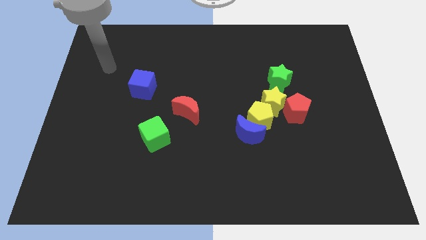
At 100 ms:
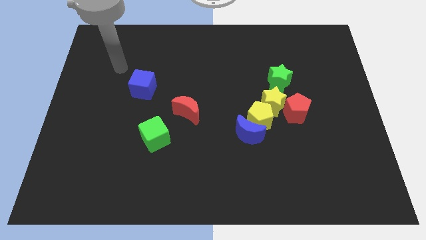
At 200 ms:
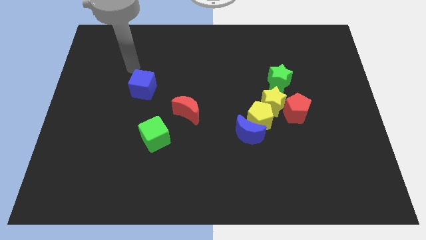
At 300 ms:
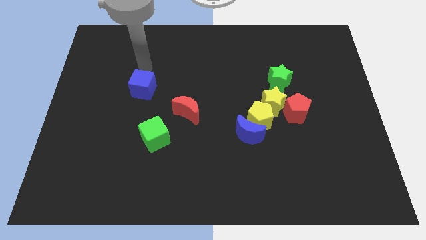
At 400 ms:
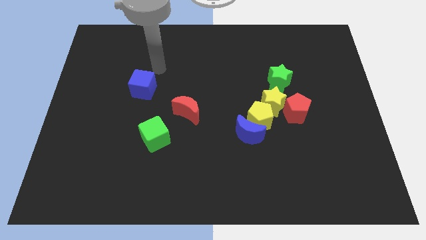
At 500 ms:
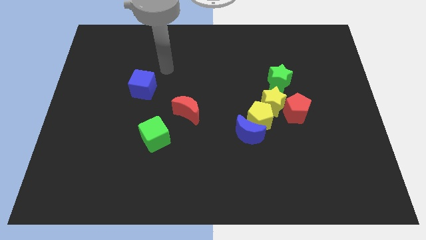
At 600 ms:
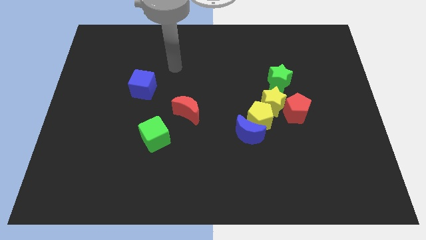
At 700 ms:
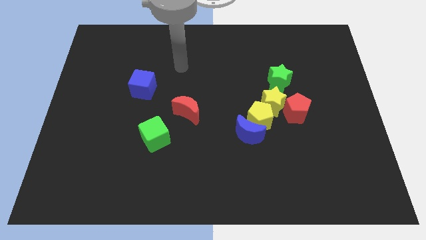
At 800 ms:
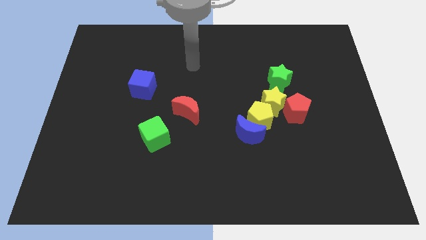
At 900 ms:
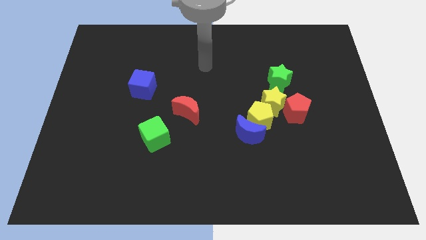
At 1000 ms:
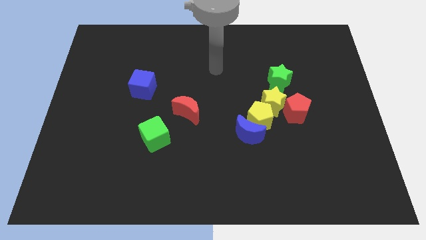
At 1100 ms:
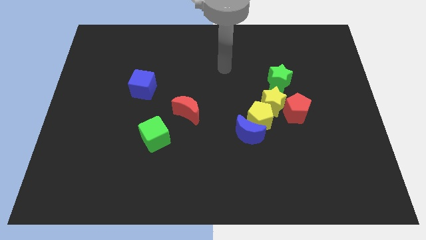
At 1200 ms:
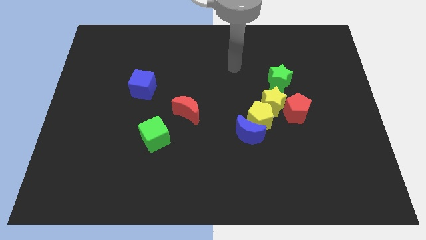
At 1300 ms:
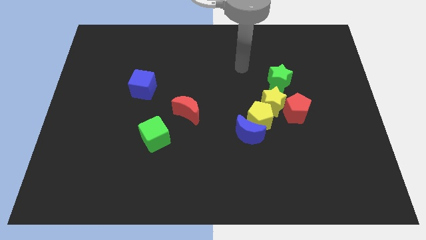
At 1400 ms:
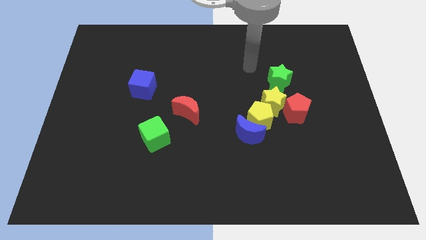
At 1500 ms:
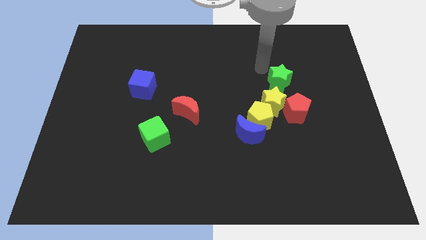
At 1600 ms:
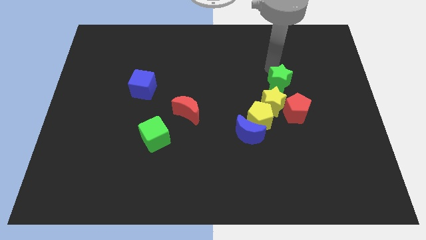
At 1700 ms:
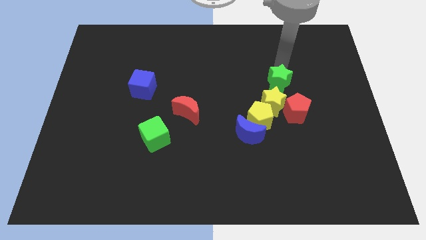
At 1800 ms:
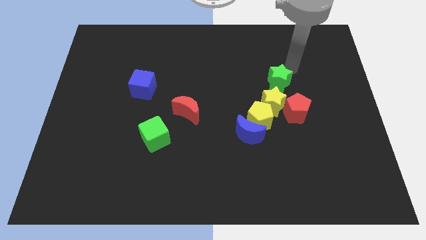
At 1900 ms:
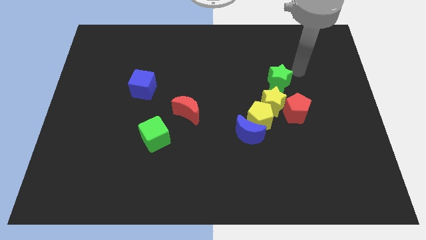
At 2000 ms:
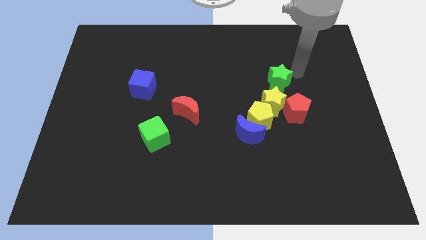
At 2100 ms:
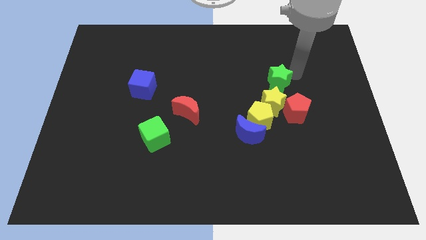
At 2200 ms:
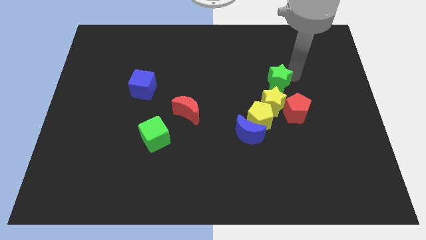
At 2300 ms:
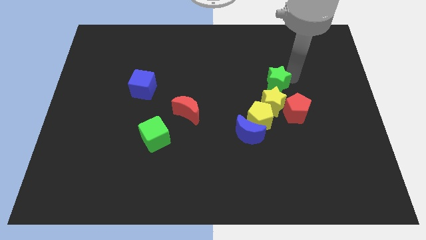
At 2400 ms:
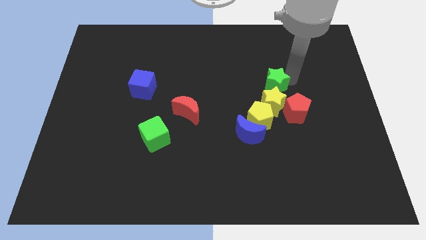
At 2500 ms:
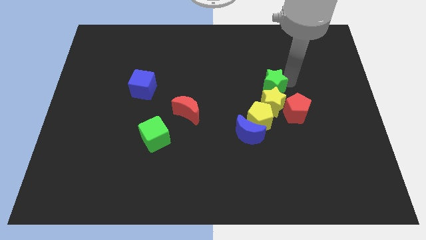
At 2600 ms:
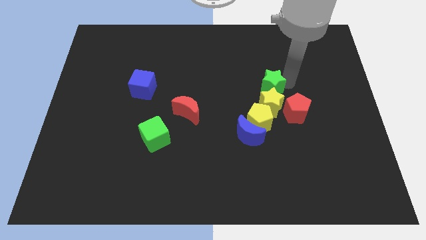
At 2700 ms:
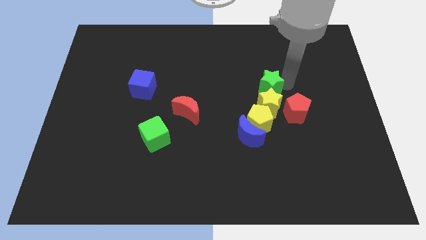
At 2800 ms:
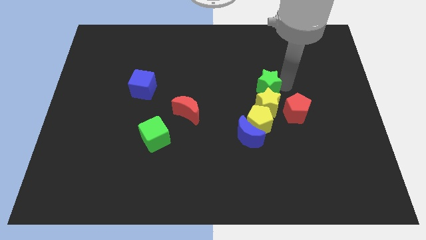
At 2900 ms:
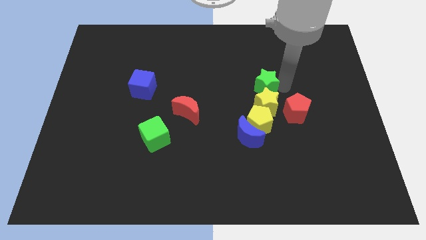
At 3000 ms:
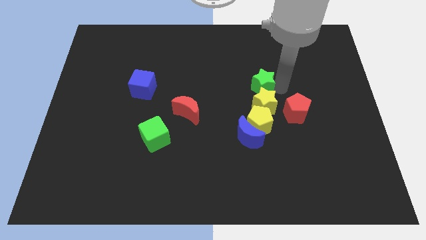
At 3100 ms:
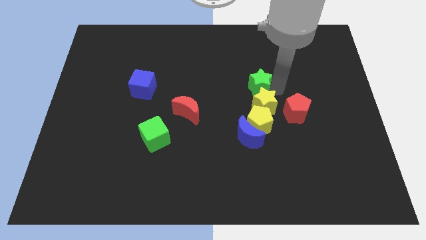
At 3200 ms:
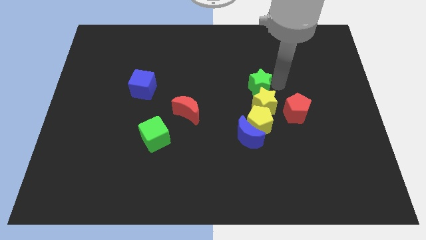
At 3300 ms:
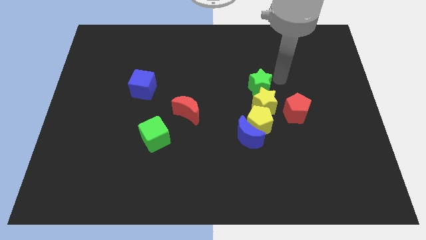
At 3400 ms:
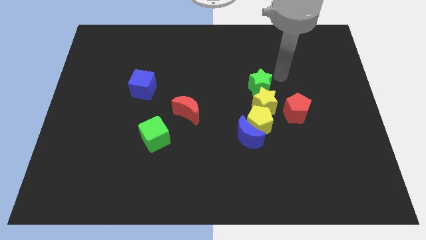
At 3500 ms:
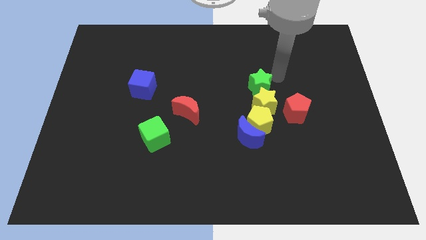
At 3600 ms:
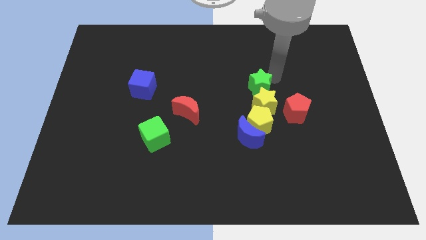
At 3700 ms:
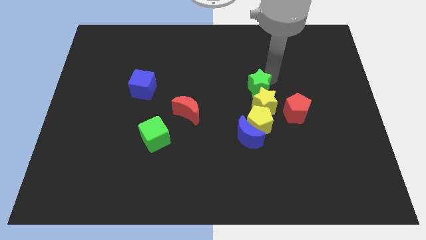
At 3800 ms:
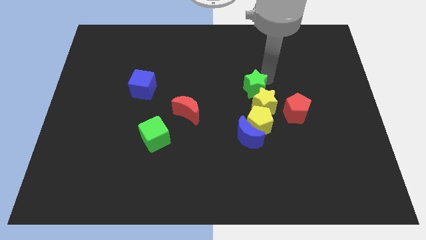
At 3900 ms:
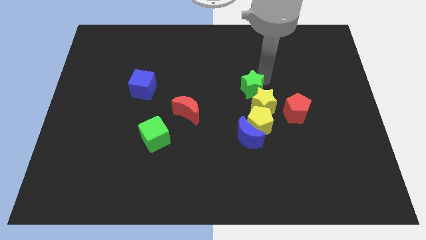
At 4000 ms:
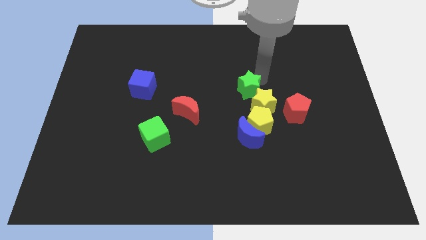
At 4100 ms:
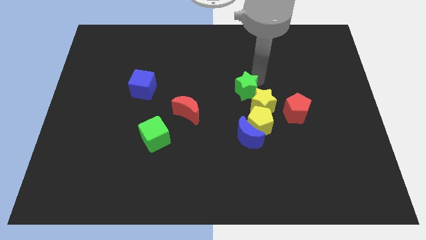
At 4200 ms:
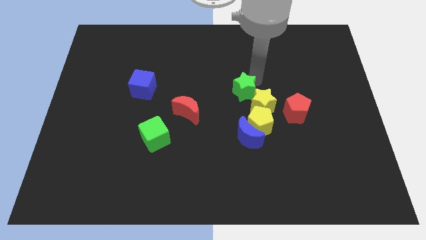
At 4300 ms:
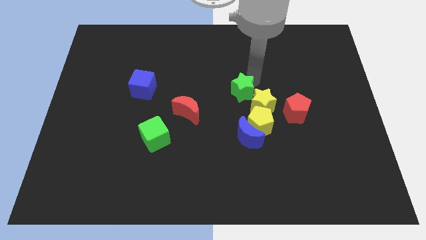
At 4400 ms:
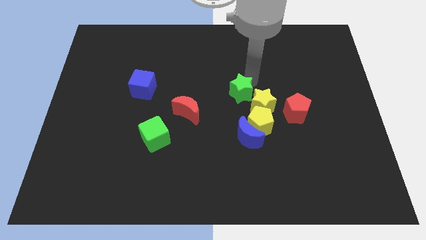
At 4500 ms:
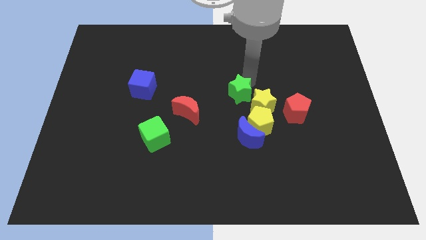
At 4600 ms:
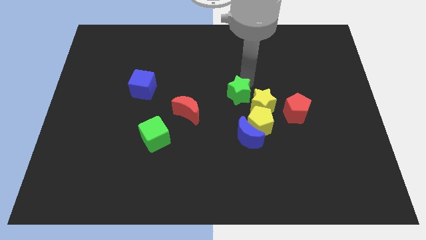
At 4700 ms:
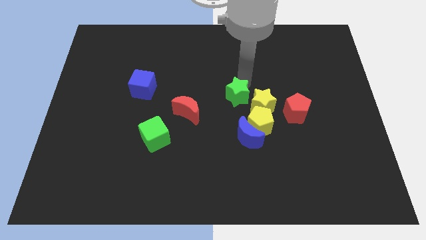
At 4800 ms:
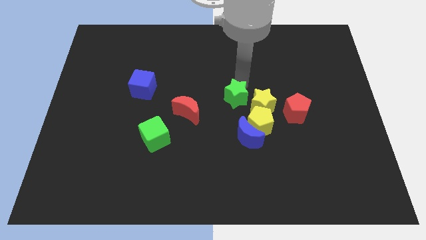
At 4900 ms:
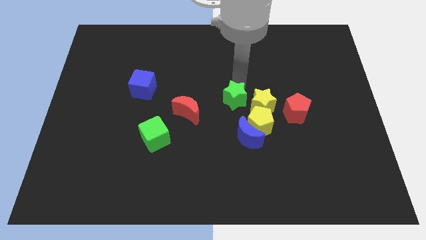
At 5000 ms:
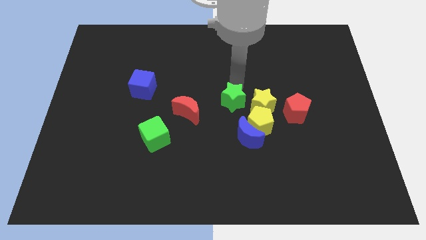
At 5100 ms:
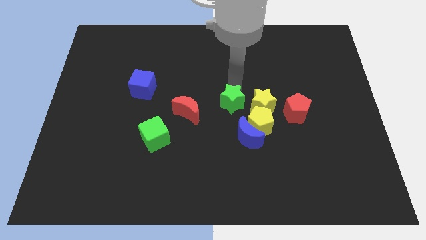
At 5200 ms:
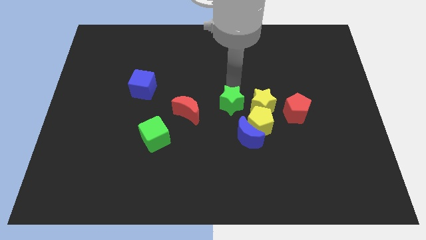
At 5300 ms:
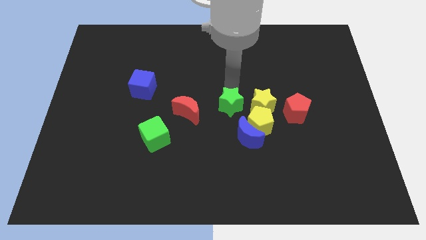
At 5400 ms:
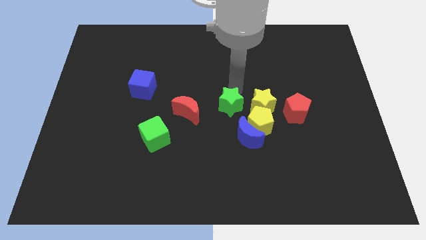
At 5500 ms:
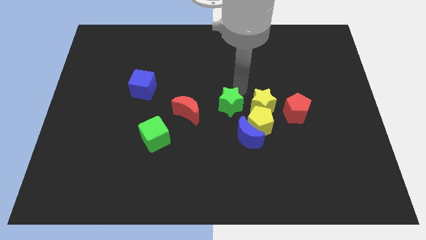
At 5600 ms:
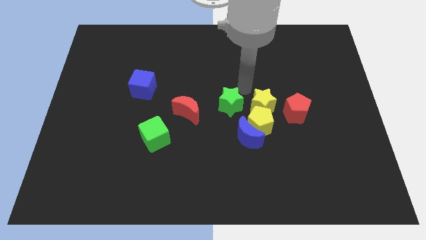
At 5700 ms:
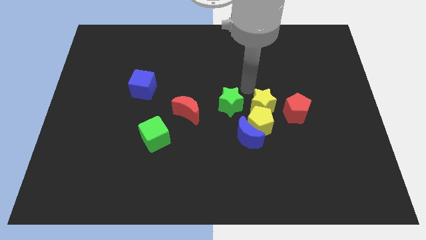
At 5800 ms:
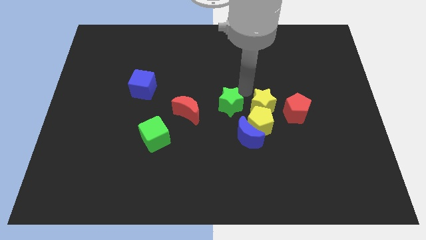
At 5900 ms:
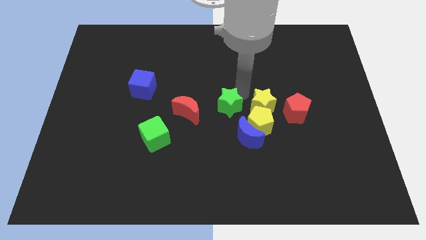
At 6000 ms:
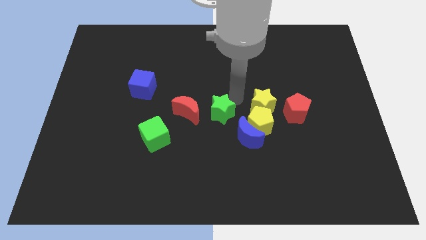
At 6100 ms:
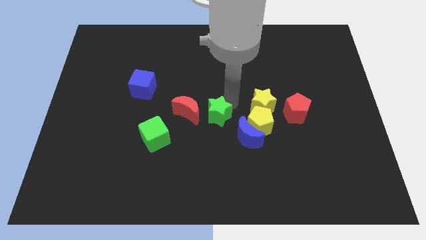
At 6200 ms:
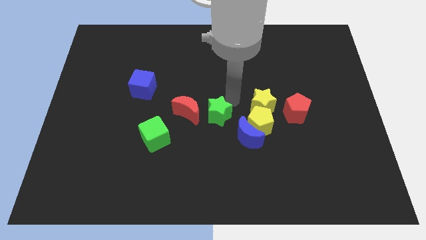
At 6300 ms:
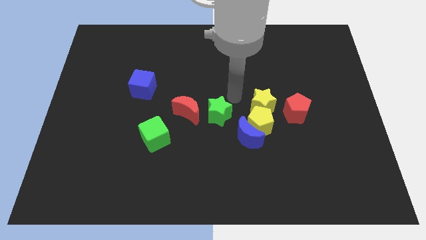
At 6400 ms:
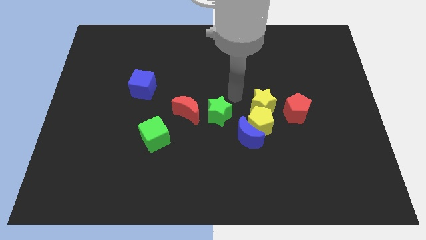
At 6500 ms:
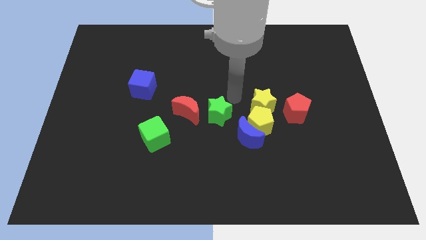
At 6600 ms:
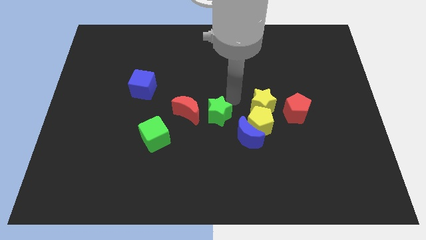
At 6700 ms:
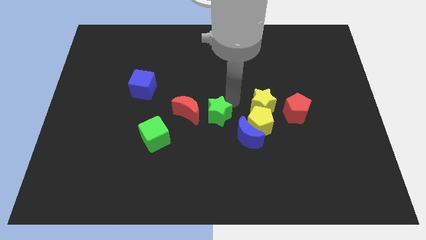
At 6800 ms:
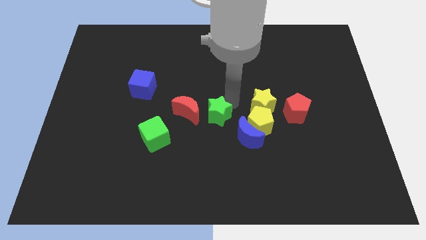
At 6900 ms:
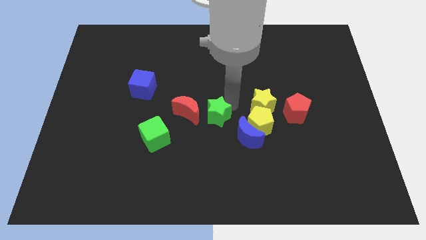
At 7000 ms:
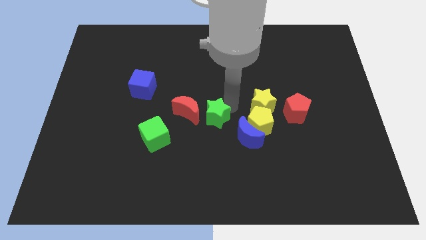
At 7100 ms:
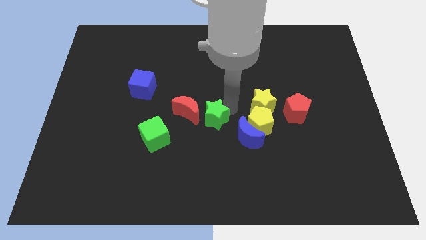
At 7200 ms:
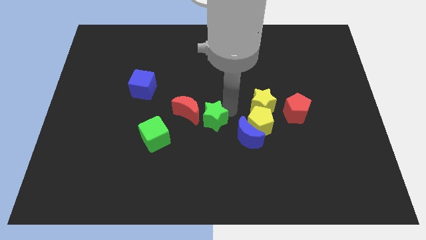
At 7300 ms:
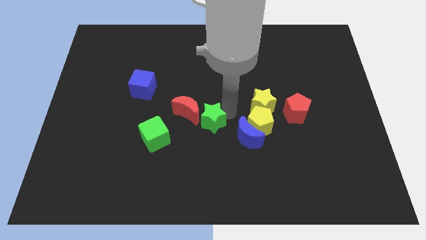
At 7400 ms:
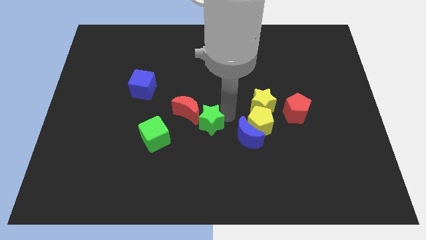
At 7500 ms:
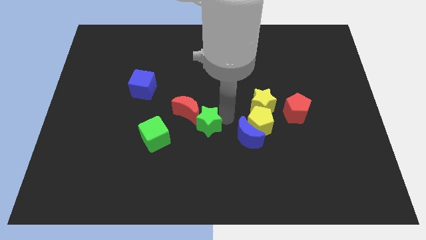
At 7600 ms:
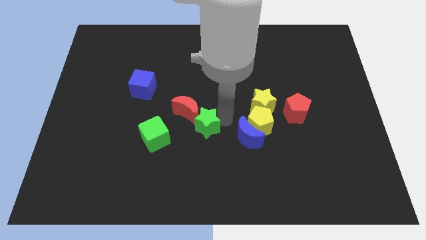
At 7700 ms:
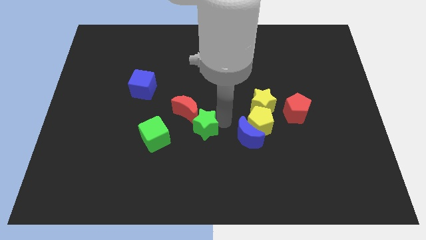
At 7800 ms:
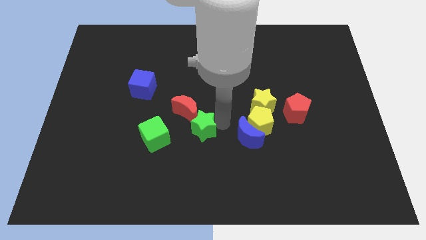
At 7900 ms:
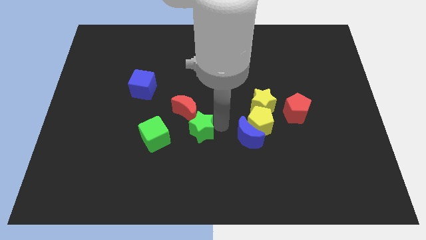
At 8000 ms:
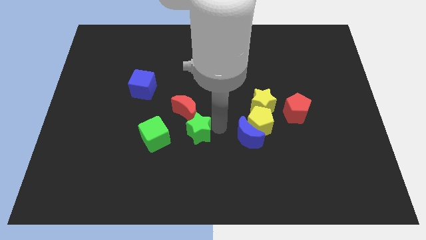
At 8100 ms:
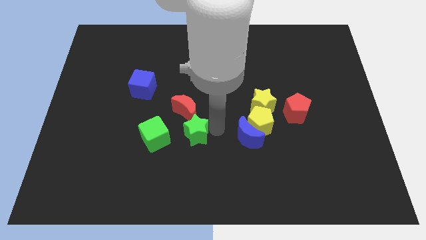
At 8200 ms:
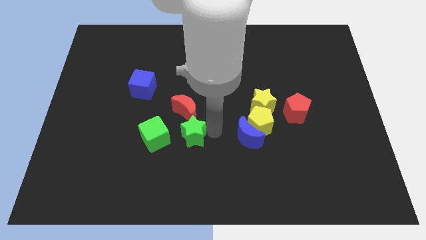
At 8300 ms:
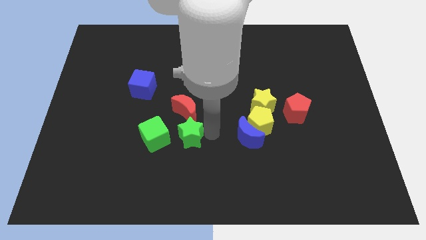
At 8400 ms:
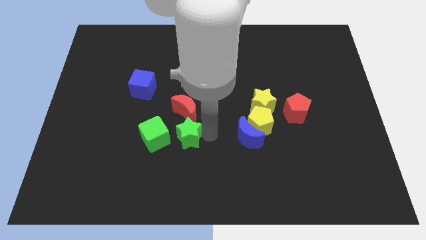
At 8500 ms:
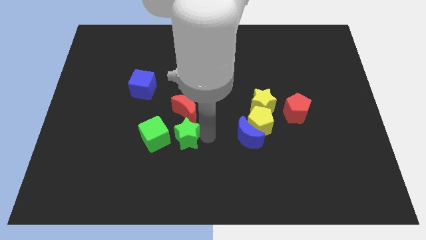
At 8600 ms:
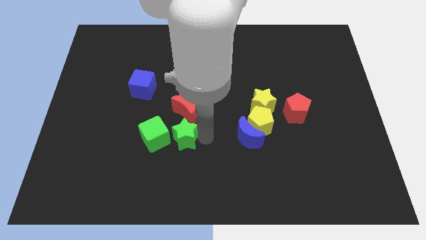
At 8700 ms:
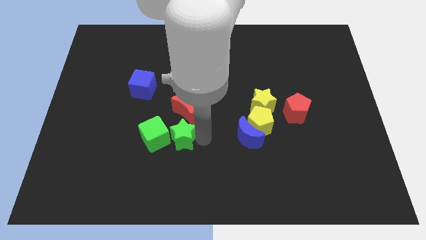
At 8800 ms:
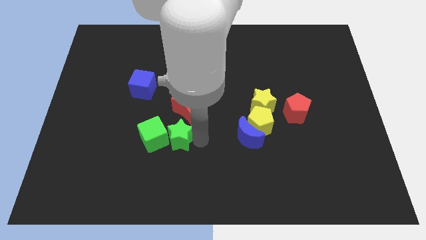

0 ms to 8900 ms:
push the green star towards the green cube
